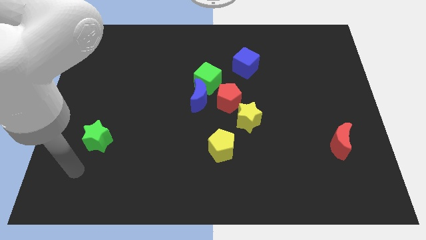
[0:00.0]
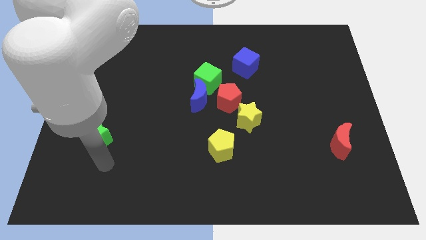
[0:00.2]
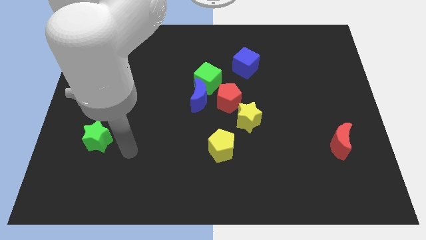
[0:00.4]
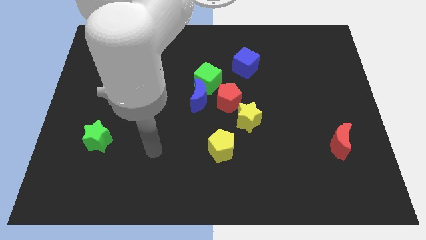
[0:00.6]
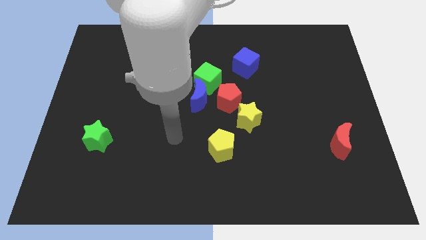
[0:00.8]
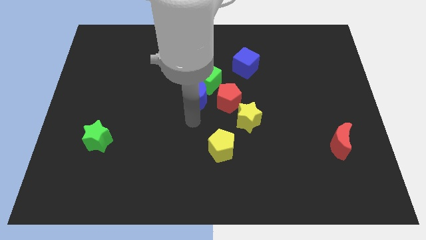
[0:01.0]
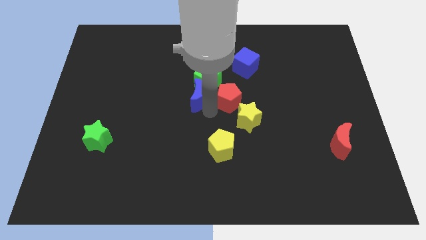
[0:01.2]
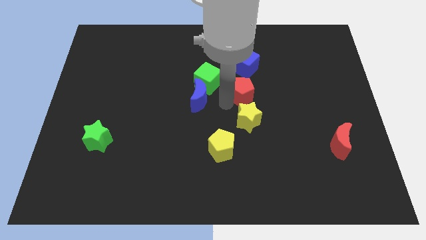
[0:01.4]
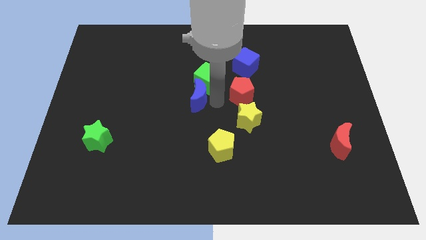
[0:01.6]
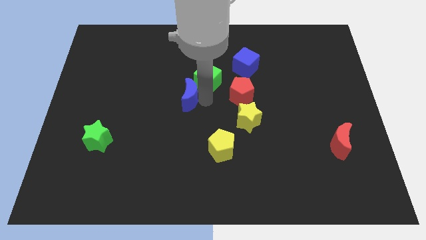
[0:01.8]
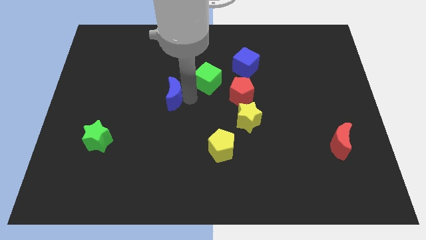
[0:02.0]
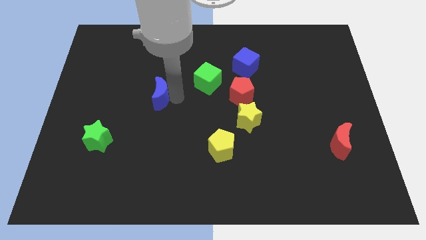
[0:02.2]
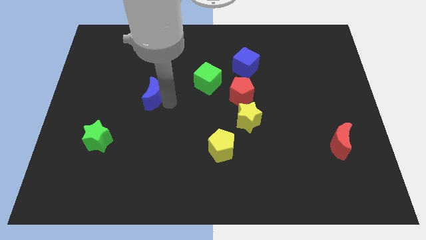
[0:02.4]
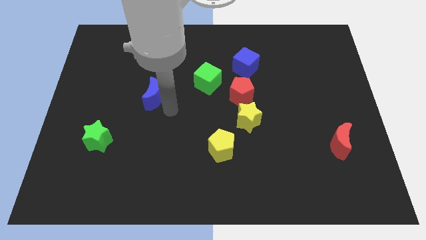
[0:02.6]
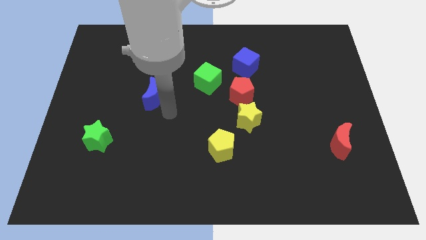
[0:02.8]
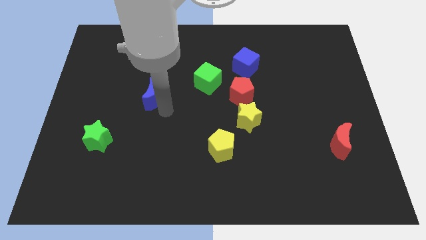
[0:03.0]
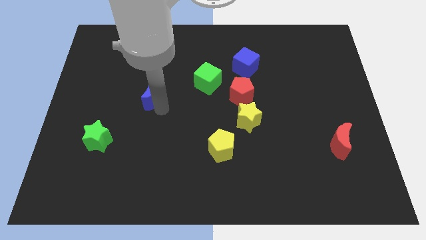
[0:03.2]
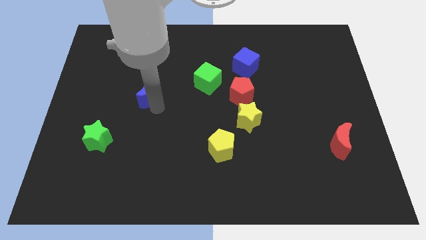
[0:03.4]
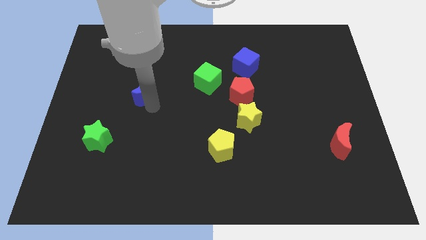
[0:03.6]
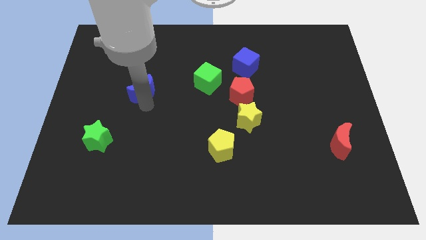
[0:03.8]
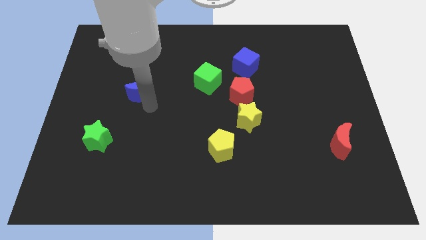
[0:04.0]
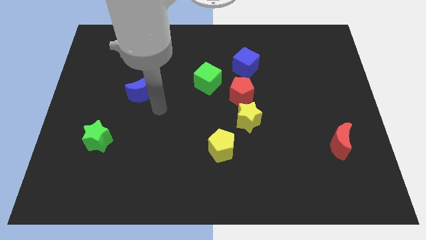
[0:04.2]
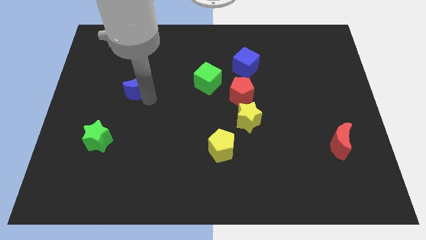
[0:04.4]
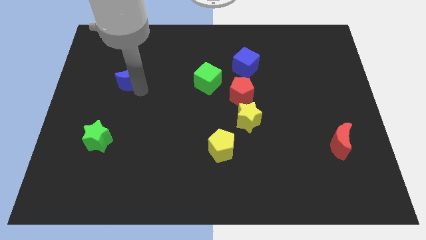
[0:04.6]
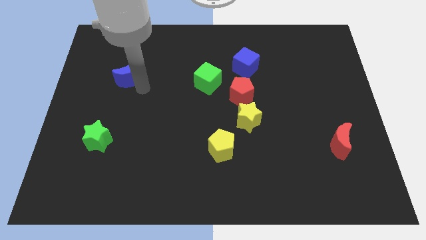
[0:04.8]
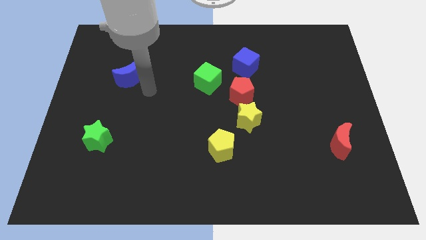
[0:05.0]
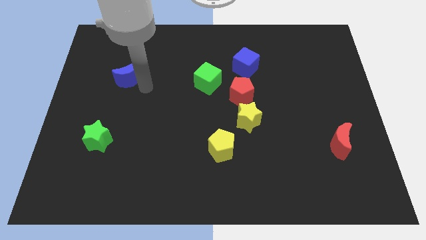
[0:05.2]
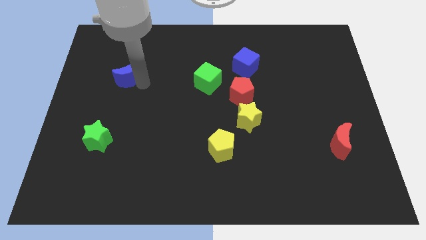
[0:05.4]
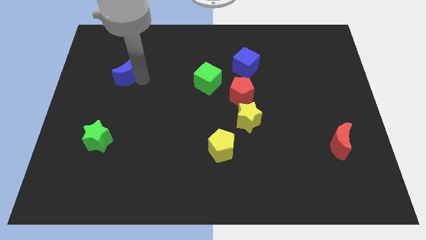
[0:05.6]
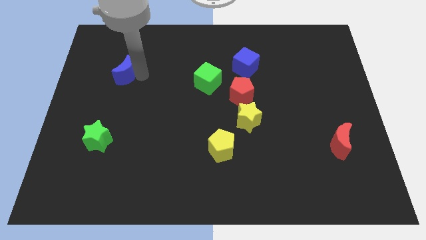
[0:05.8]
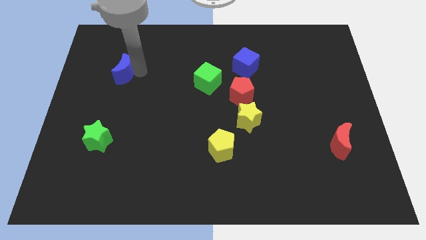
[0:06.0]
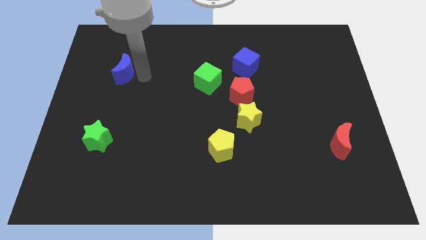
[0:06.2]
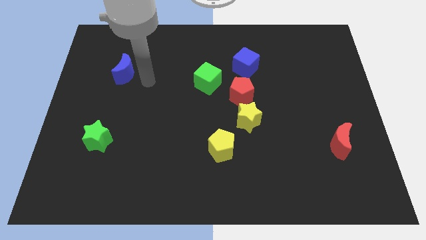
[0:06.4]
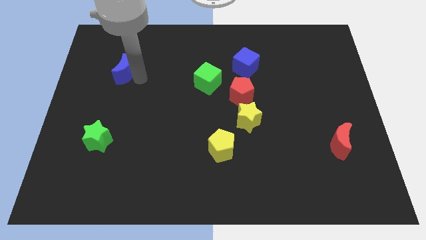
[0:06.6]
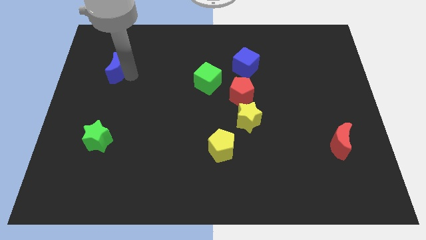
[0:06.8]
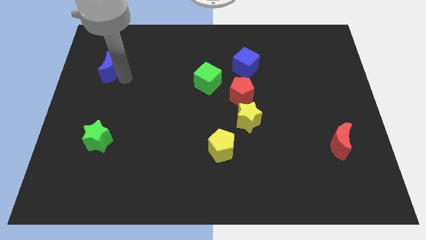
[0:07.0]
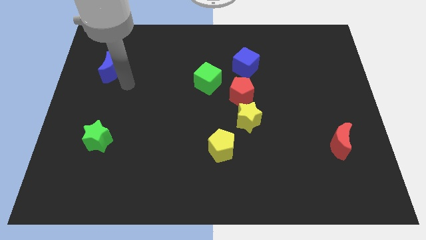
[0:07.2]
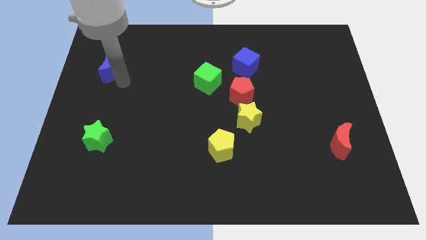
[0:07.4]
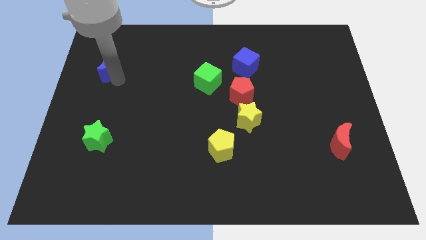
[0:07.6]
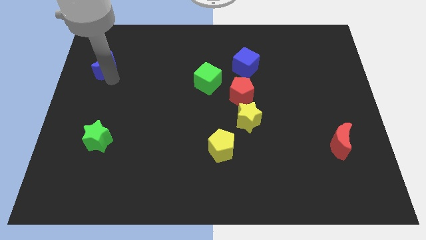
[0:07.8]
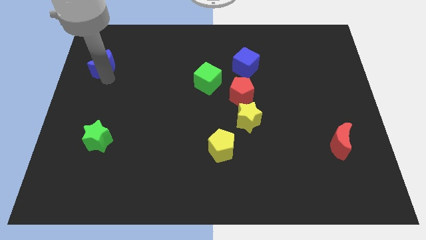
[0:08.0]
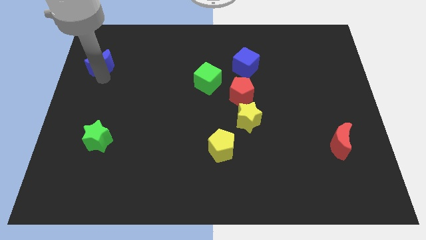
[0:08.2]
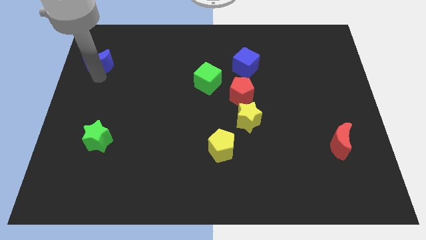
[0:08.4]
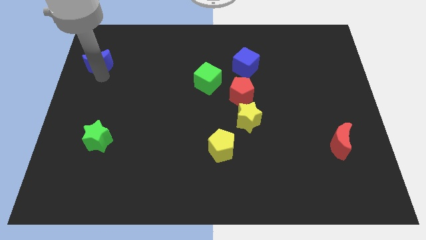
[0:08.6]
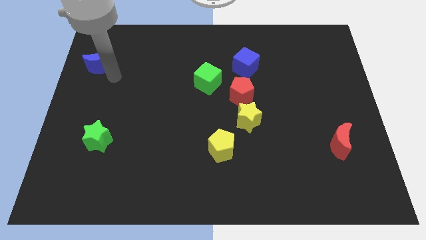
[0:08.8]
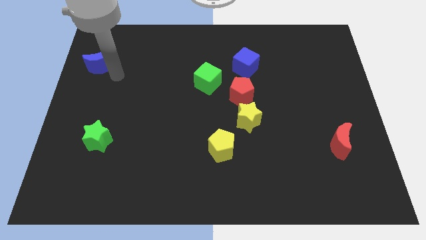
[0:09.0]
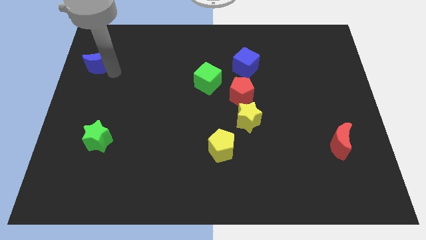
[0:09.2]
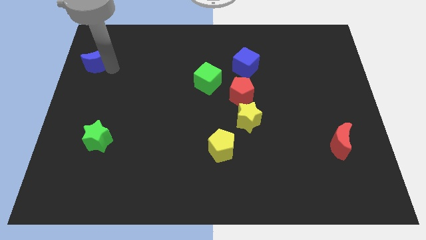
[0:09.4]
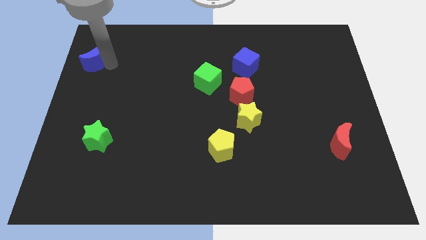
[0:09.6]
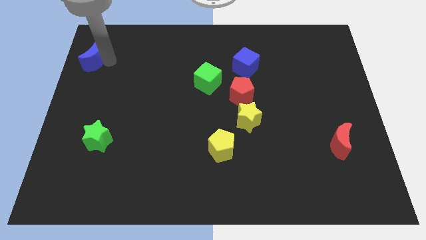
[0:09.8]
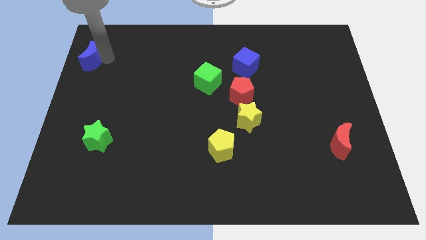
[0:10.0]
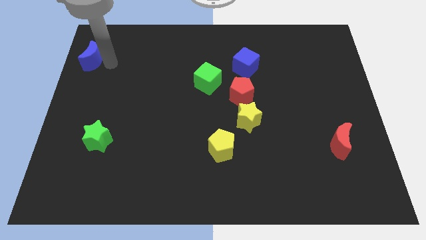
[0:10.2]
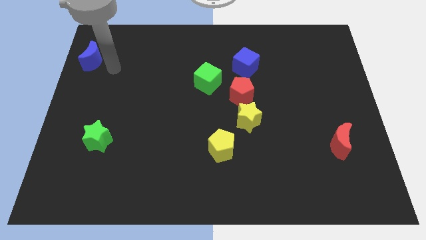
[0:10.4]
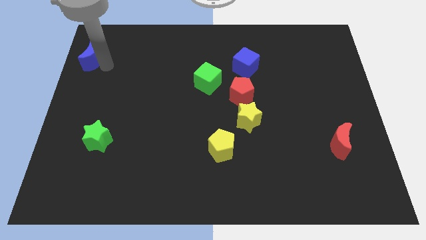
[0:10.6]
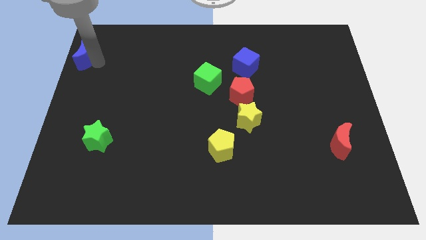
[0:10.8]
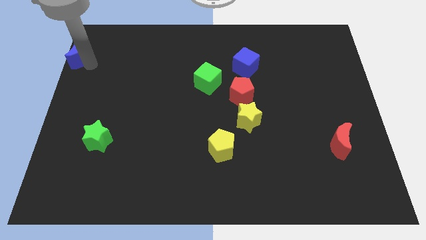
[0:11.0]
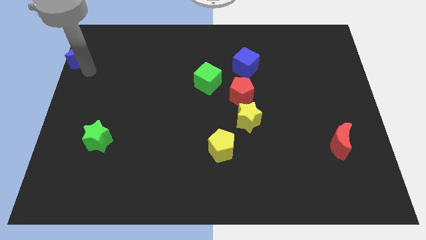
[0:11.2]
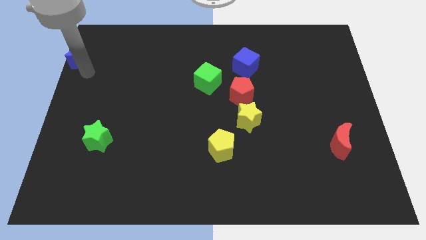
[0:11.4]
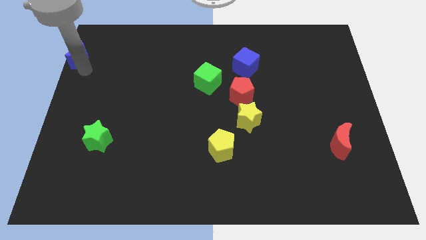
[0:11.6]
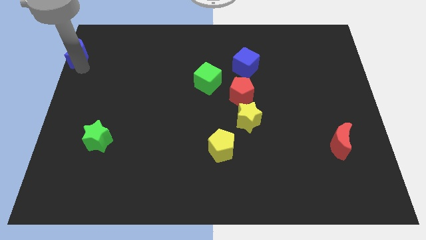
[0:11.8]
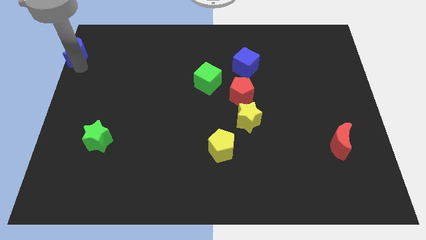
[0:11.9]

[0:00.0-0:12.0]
push the blue moon to the top left
